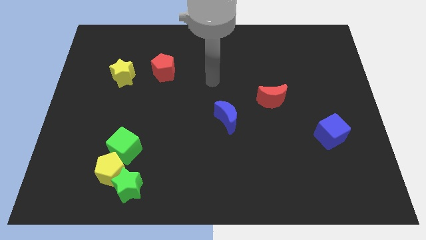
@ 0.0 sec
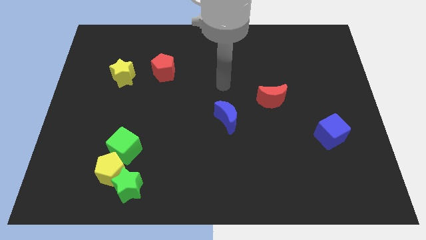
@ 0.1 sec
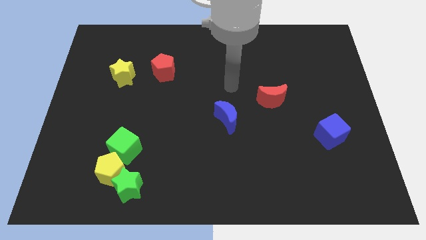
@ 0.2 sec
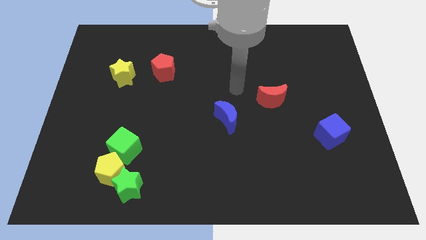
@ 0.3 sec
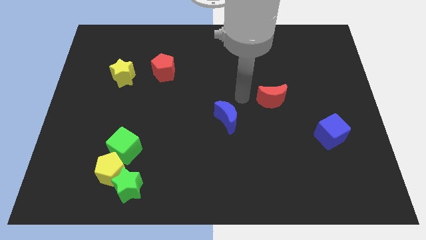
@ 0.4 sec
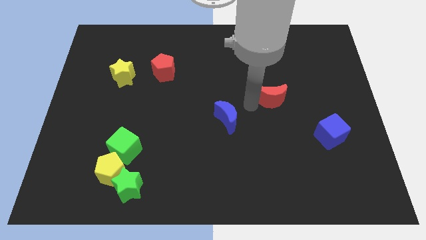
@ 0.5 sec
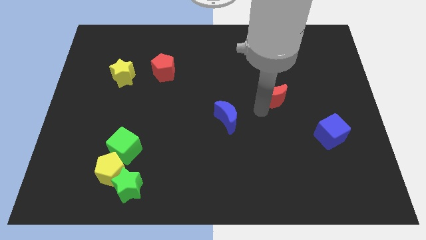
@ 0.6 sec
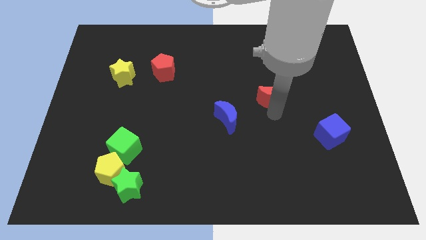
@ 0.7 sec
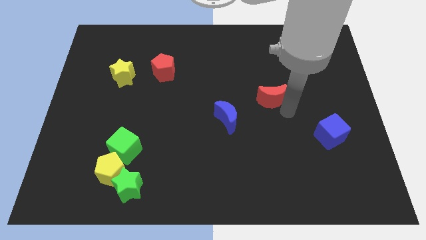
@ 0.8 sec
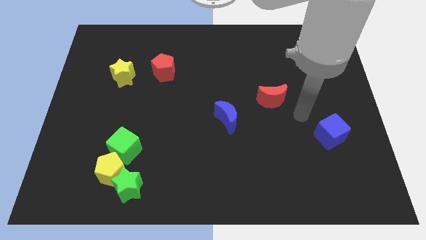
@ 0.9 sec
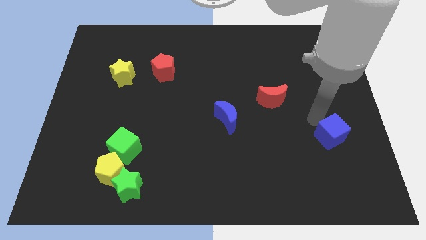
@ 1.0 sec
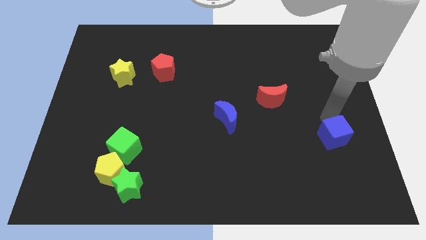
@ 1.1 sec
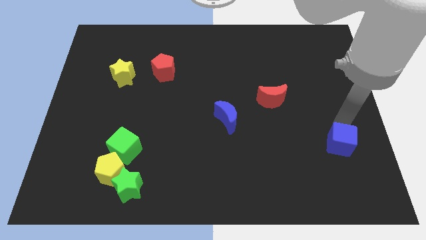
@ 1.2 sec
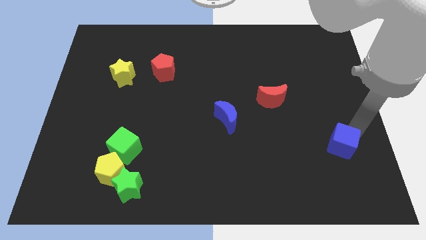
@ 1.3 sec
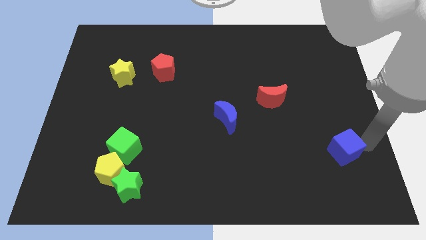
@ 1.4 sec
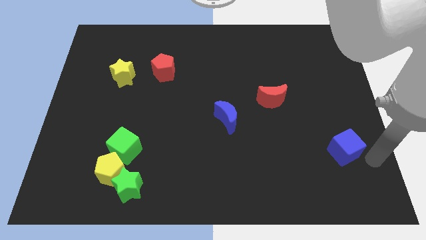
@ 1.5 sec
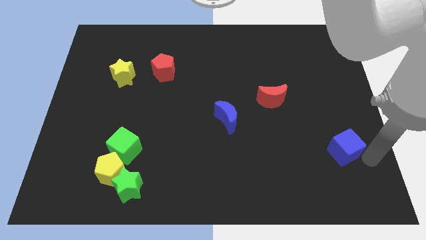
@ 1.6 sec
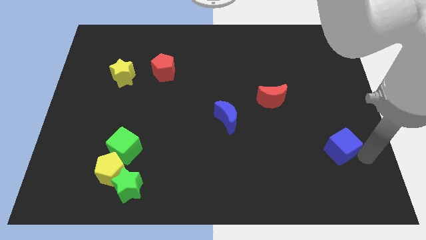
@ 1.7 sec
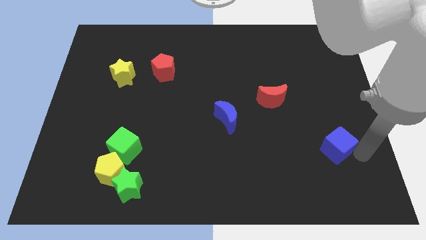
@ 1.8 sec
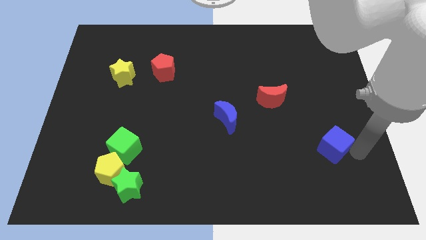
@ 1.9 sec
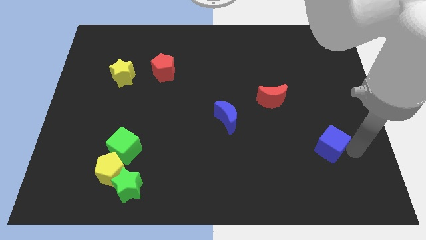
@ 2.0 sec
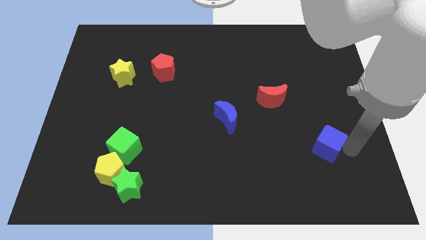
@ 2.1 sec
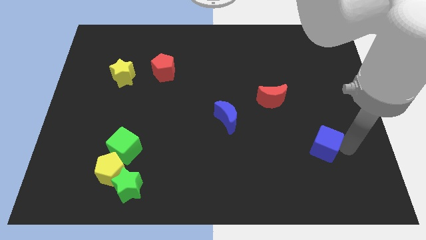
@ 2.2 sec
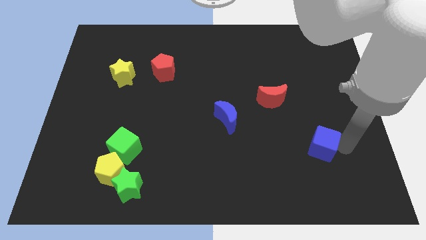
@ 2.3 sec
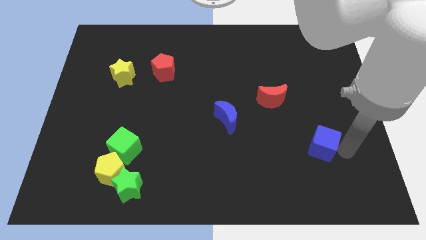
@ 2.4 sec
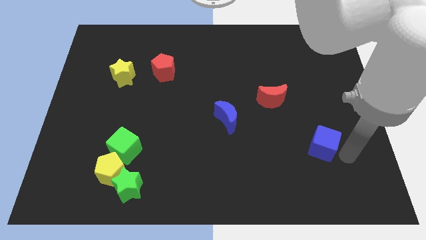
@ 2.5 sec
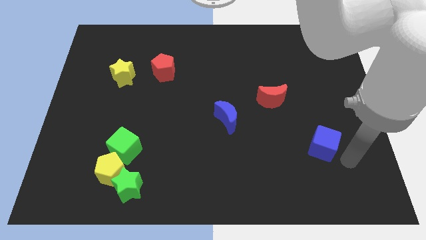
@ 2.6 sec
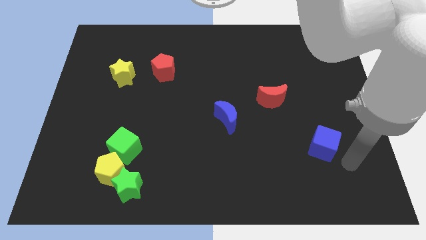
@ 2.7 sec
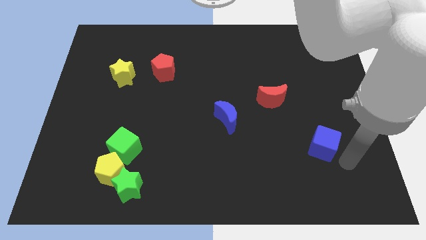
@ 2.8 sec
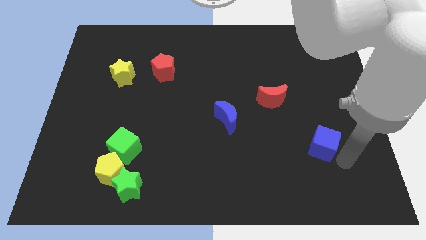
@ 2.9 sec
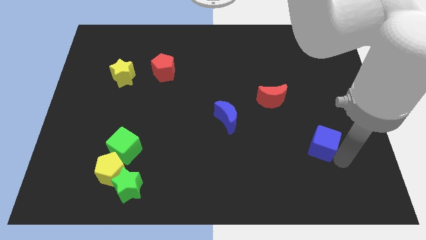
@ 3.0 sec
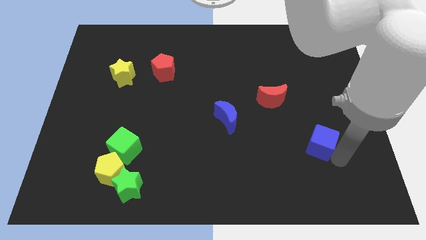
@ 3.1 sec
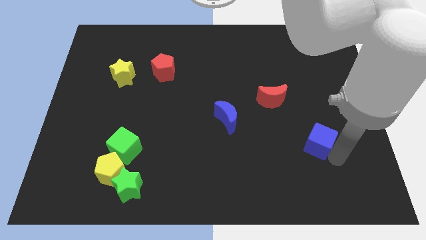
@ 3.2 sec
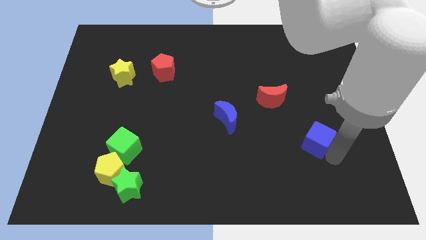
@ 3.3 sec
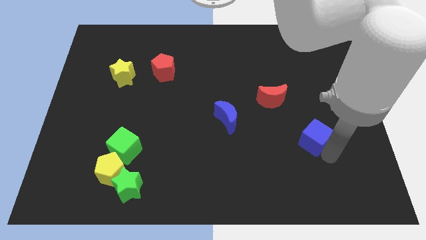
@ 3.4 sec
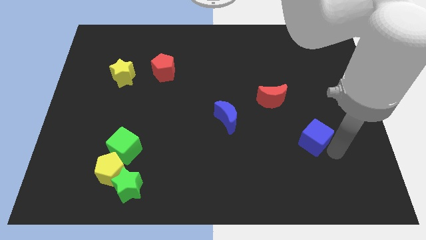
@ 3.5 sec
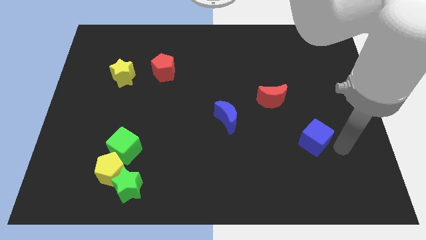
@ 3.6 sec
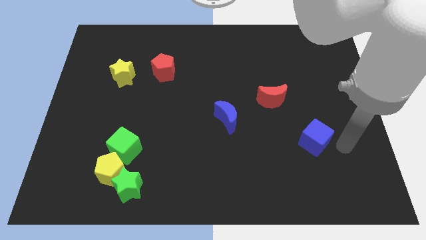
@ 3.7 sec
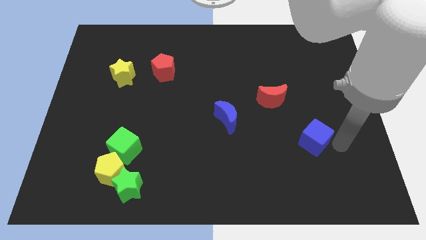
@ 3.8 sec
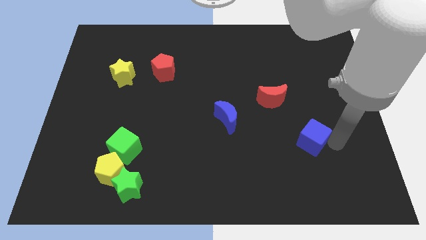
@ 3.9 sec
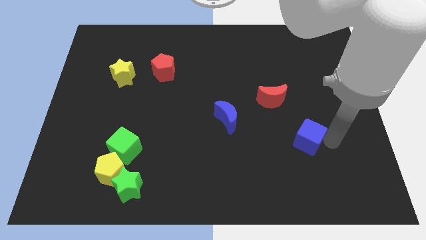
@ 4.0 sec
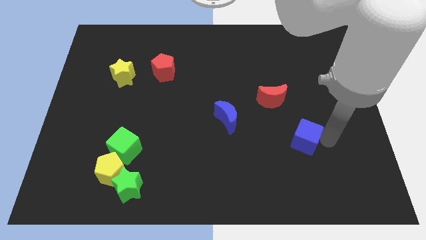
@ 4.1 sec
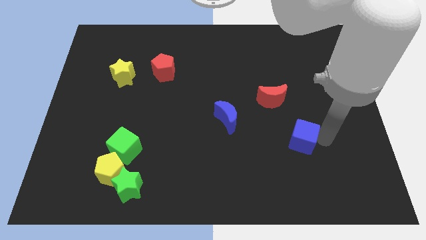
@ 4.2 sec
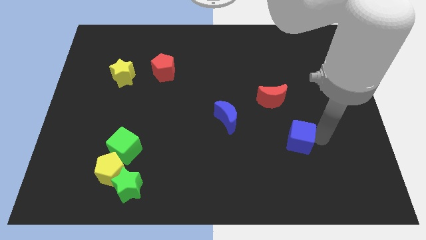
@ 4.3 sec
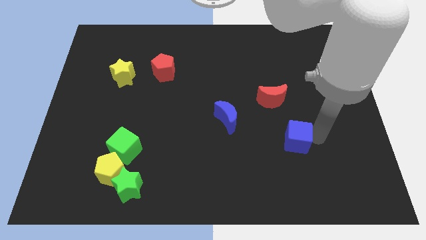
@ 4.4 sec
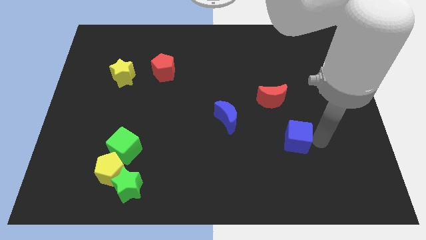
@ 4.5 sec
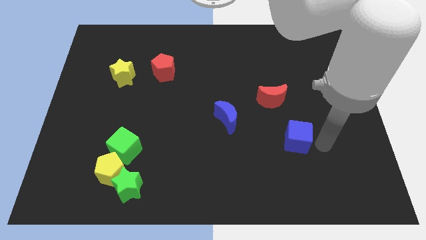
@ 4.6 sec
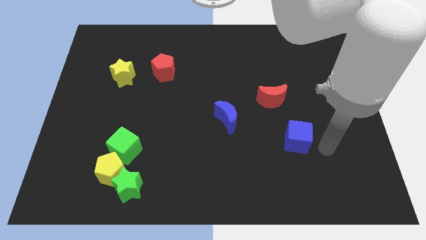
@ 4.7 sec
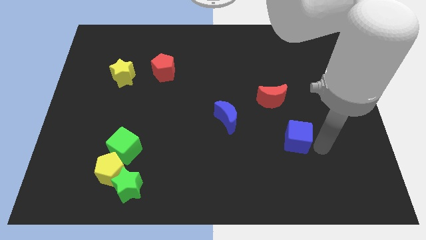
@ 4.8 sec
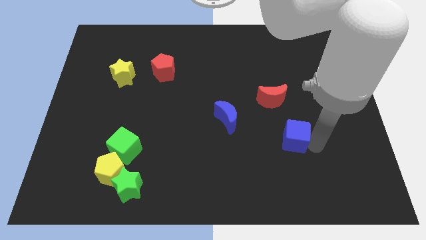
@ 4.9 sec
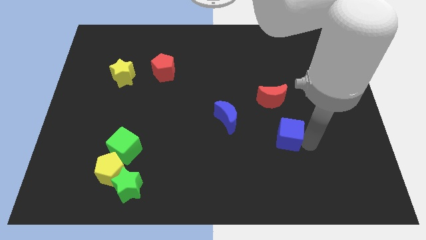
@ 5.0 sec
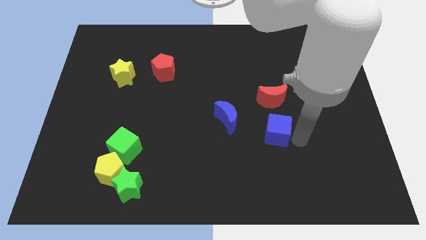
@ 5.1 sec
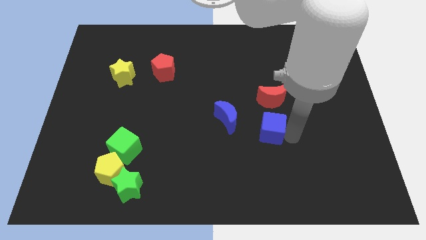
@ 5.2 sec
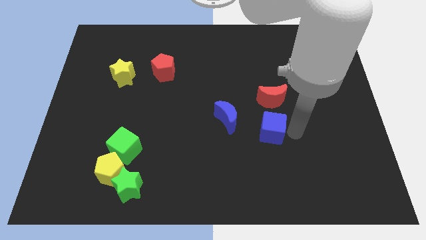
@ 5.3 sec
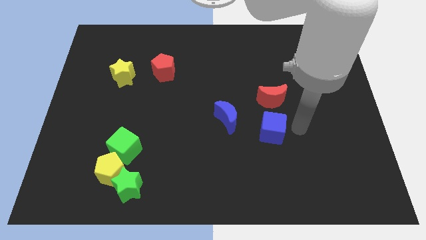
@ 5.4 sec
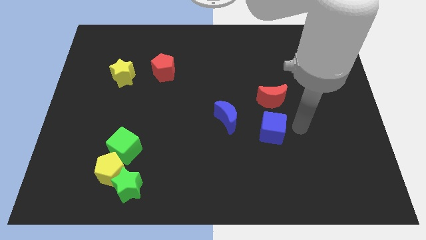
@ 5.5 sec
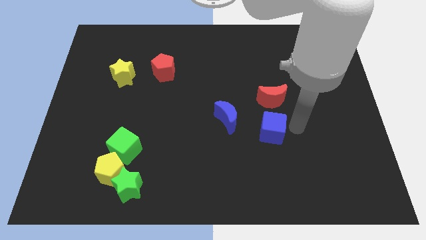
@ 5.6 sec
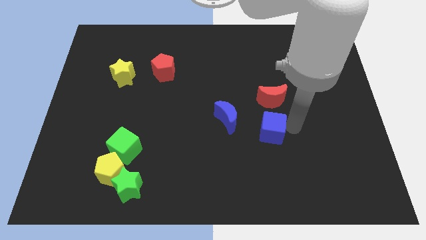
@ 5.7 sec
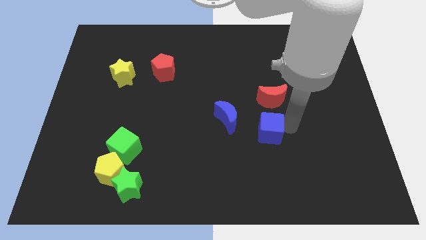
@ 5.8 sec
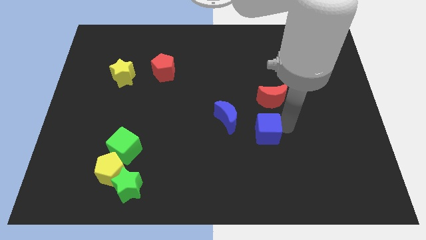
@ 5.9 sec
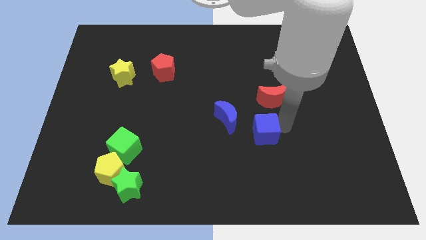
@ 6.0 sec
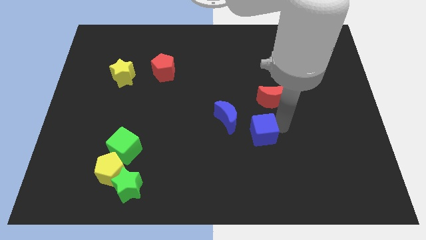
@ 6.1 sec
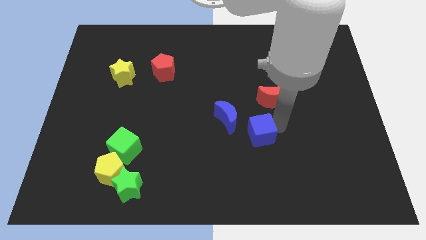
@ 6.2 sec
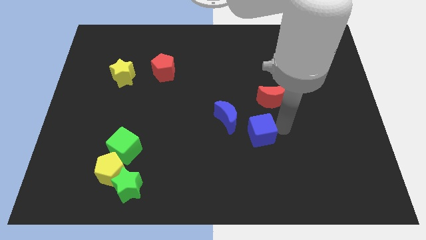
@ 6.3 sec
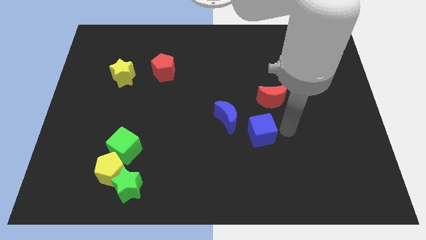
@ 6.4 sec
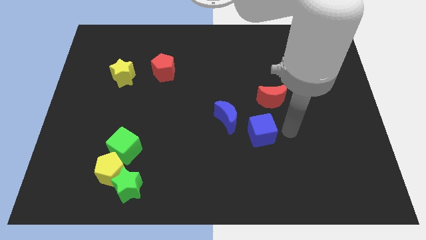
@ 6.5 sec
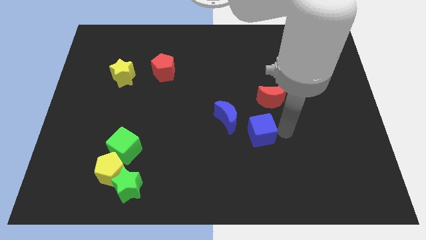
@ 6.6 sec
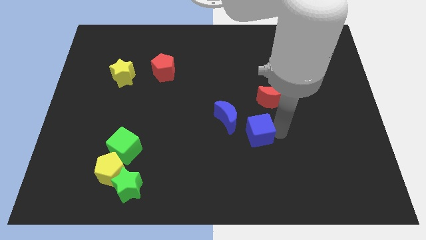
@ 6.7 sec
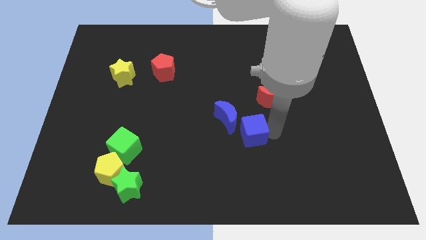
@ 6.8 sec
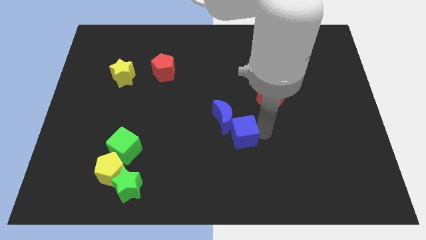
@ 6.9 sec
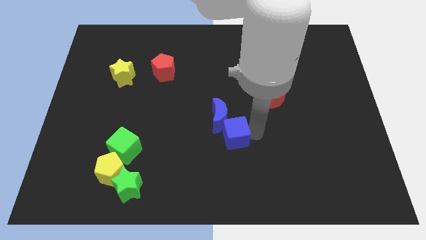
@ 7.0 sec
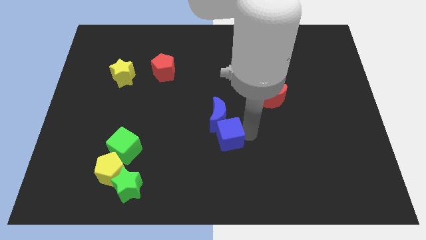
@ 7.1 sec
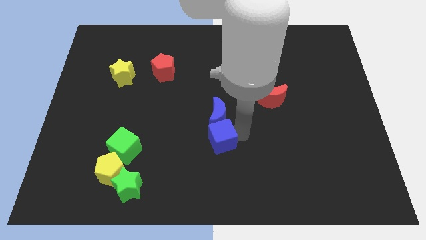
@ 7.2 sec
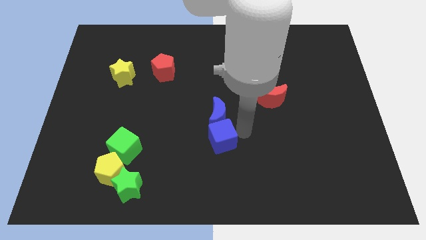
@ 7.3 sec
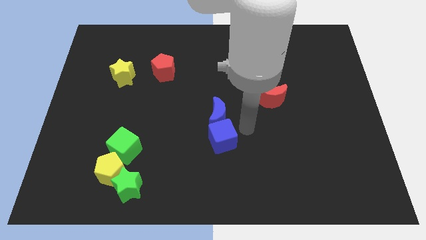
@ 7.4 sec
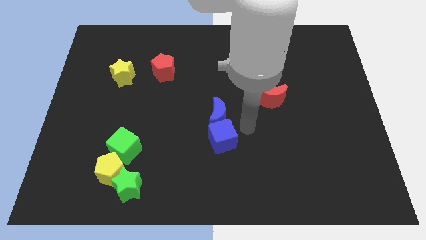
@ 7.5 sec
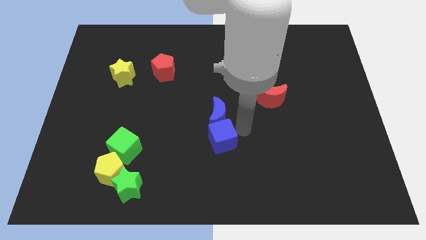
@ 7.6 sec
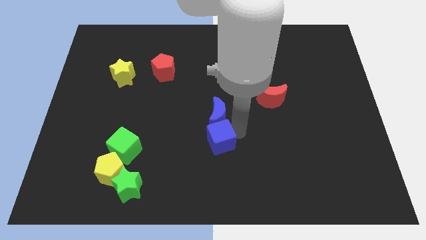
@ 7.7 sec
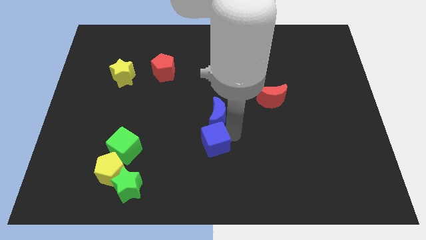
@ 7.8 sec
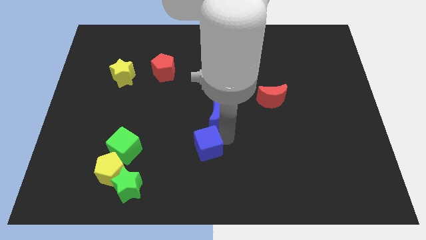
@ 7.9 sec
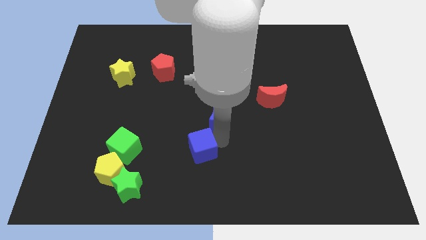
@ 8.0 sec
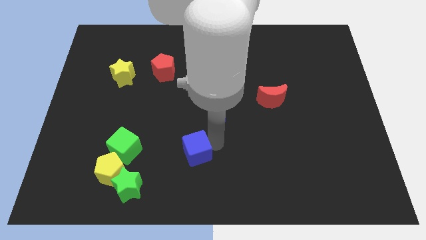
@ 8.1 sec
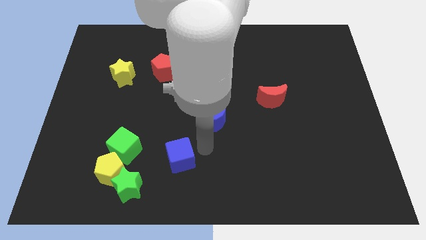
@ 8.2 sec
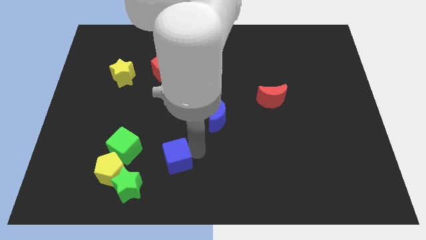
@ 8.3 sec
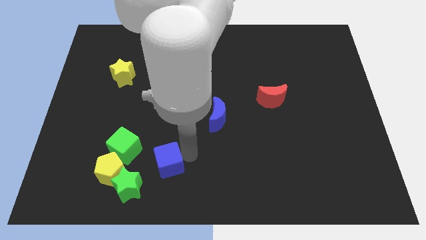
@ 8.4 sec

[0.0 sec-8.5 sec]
push the blue cube to the bottom right of the green cube
